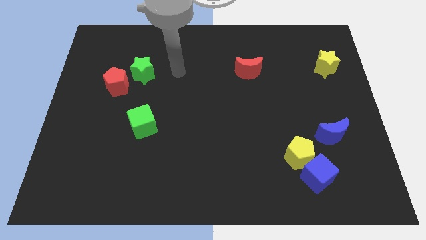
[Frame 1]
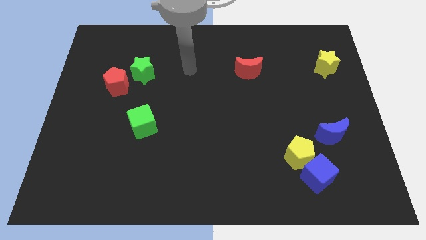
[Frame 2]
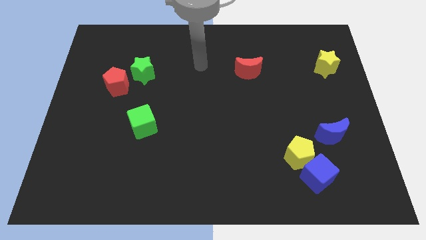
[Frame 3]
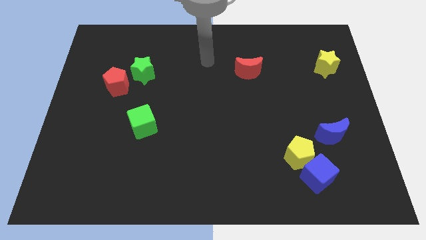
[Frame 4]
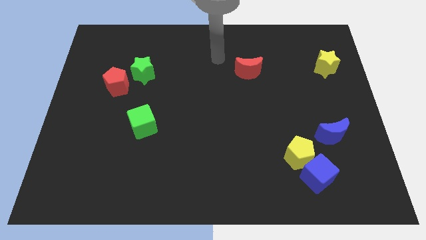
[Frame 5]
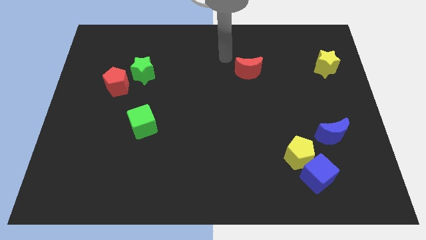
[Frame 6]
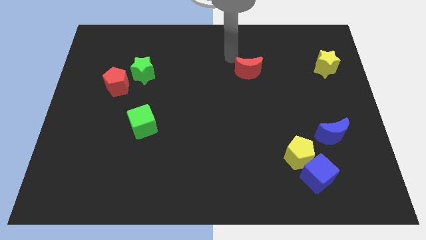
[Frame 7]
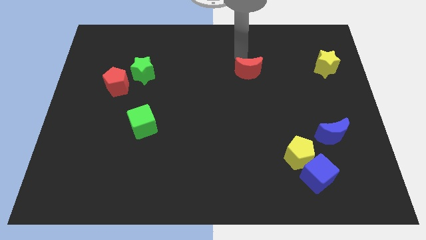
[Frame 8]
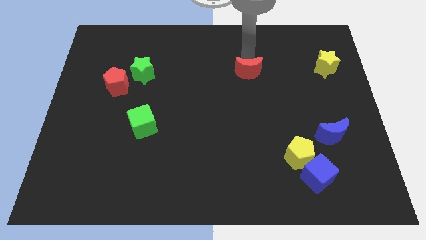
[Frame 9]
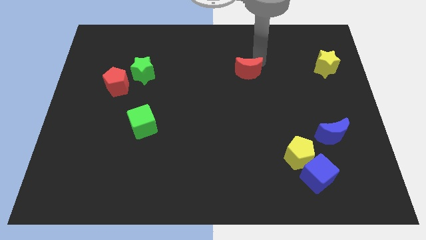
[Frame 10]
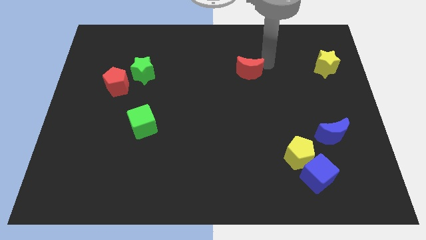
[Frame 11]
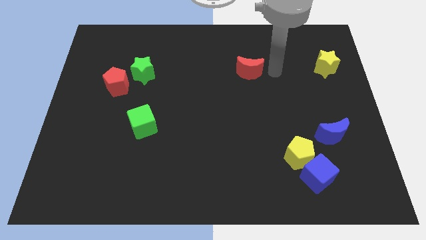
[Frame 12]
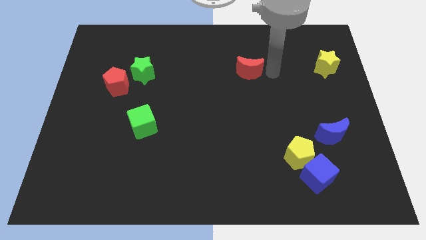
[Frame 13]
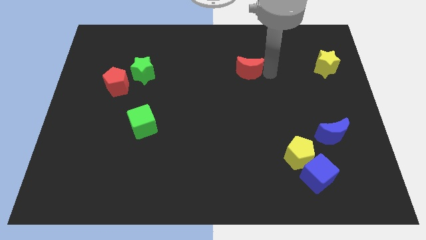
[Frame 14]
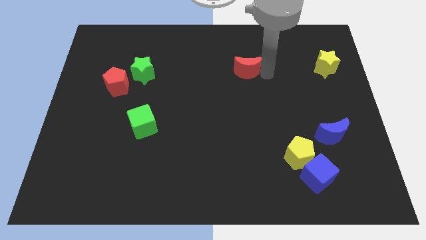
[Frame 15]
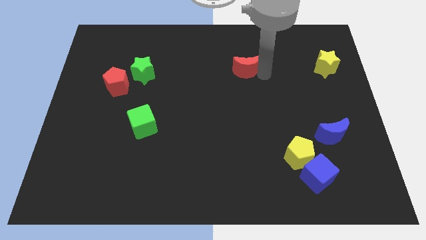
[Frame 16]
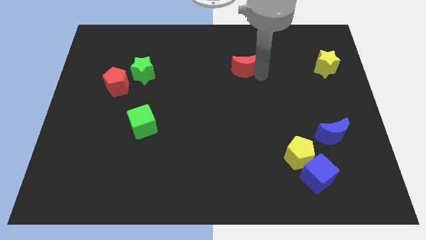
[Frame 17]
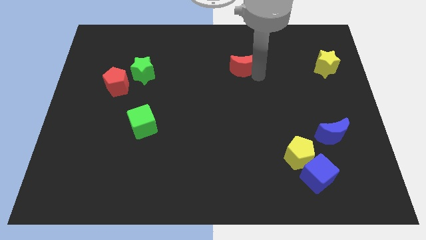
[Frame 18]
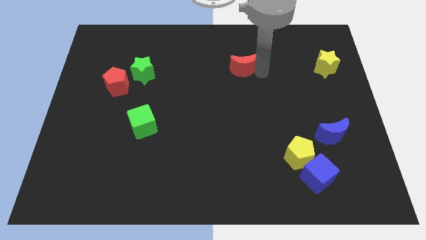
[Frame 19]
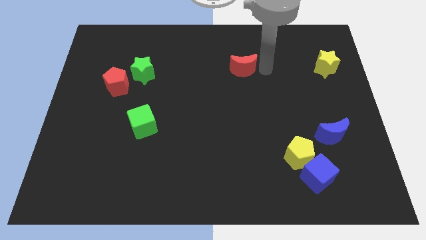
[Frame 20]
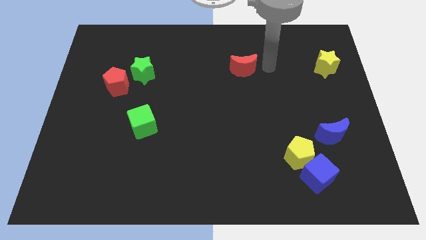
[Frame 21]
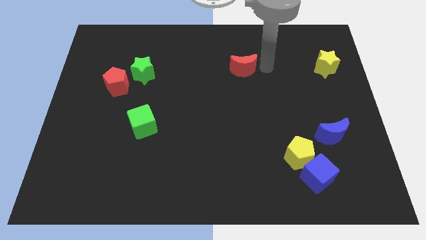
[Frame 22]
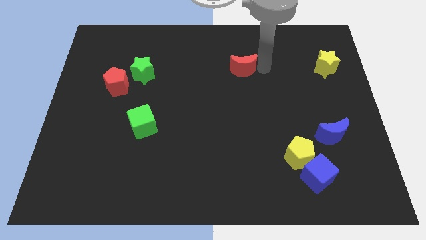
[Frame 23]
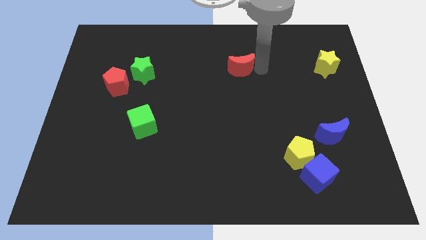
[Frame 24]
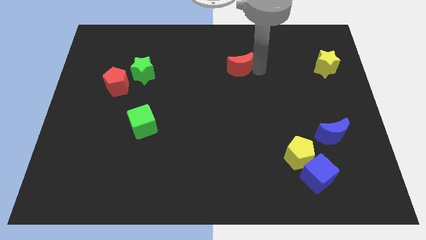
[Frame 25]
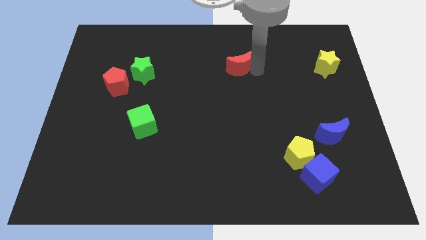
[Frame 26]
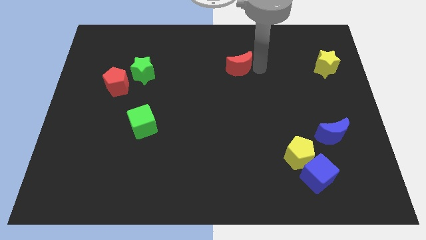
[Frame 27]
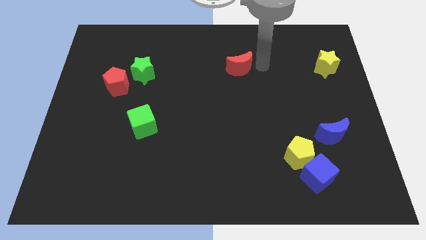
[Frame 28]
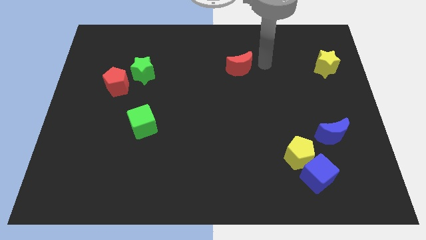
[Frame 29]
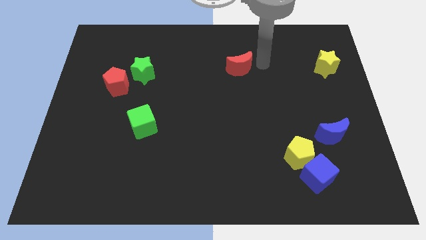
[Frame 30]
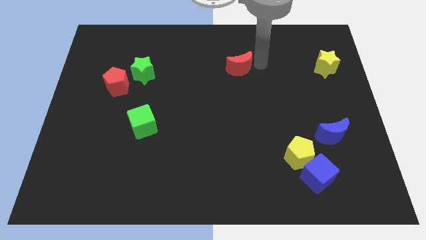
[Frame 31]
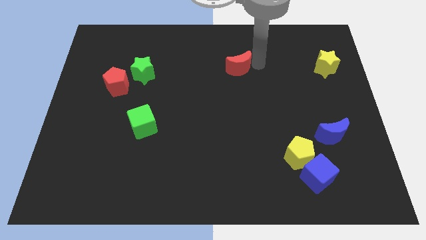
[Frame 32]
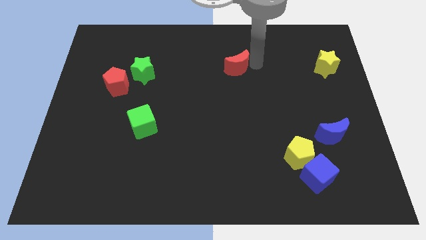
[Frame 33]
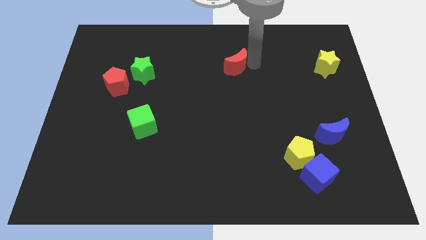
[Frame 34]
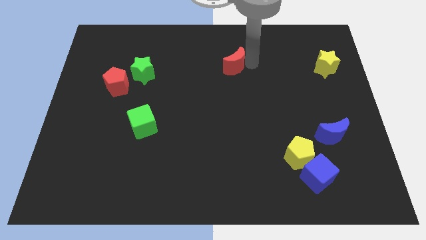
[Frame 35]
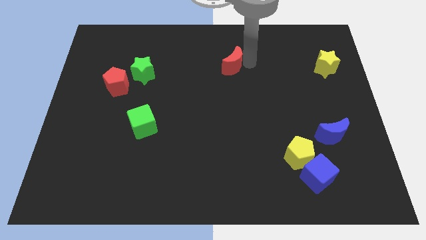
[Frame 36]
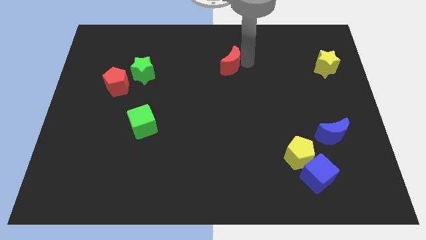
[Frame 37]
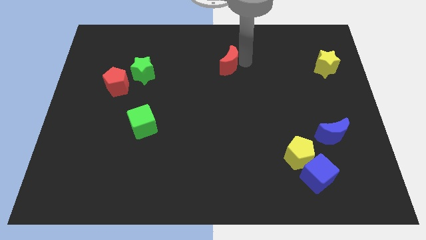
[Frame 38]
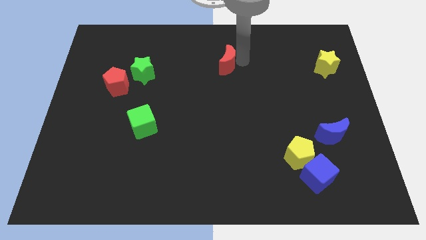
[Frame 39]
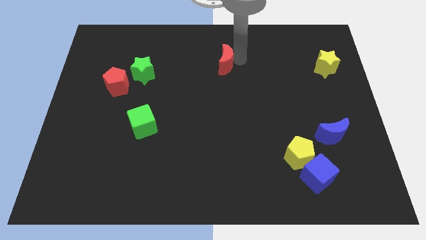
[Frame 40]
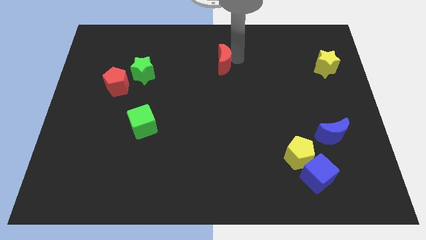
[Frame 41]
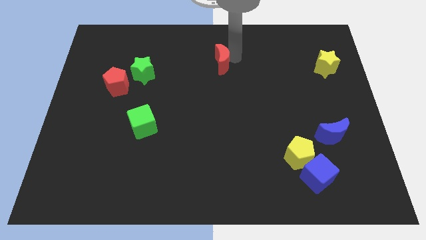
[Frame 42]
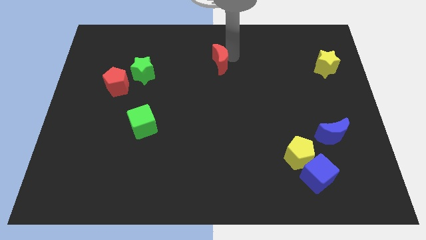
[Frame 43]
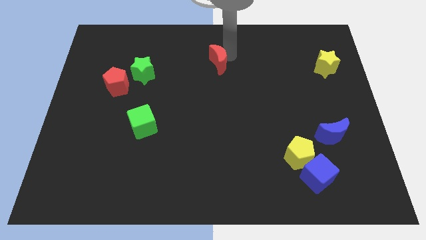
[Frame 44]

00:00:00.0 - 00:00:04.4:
push the red moon left slightly

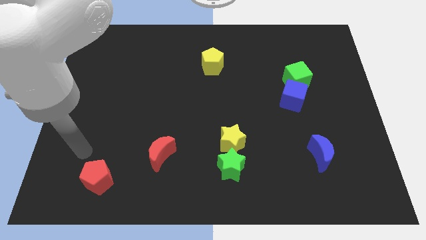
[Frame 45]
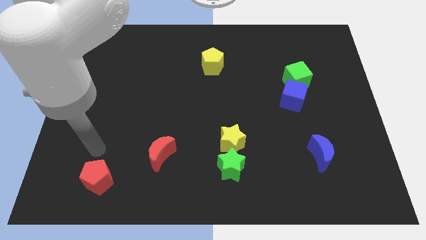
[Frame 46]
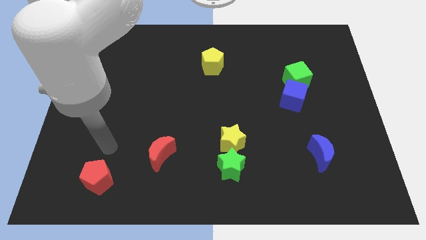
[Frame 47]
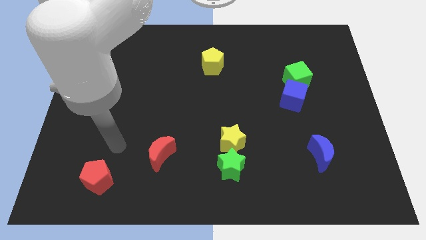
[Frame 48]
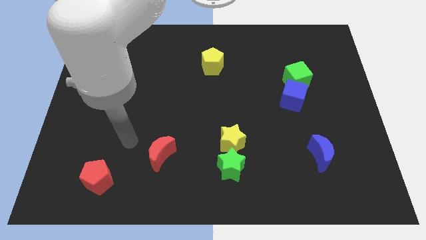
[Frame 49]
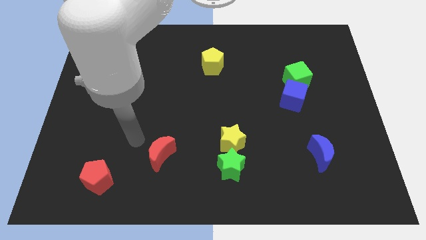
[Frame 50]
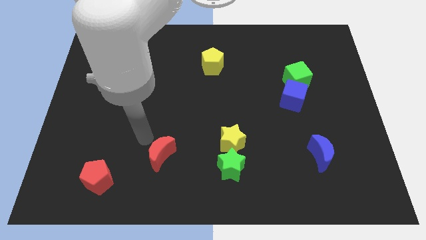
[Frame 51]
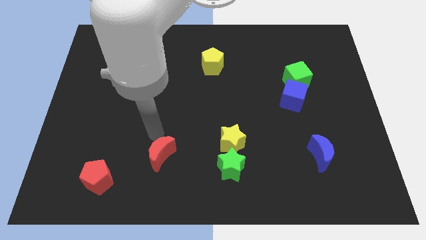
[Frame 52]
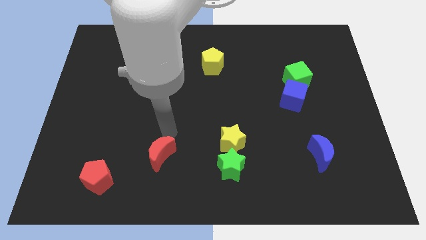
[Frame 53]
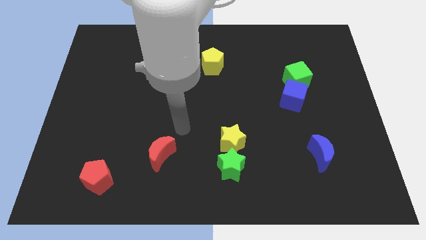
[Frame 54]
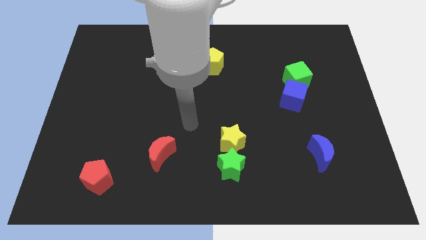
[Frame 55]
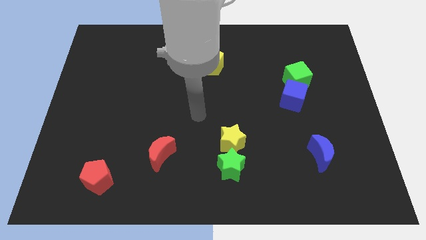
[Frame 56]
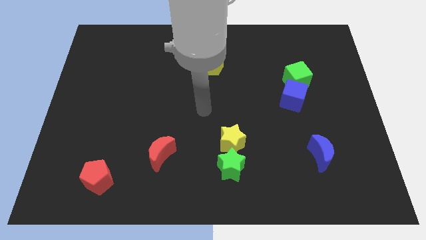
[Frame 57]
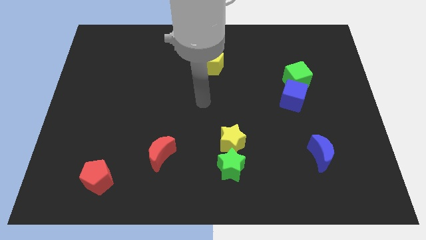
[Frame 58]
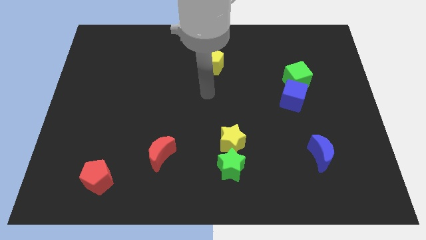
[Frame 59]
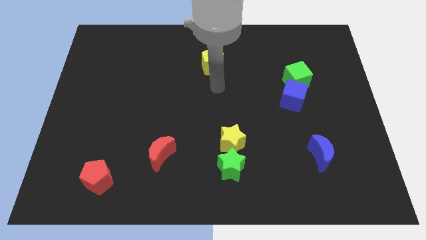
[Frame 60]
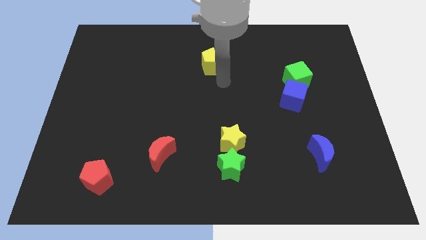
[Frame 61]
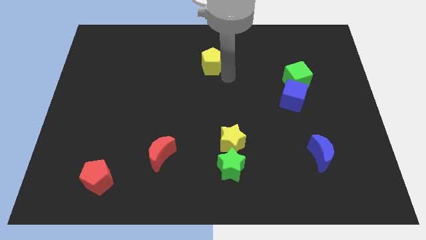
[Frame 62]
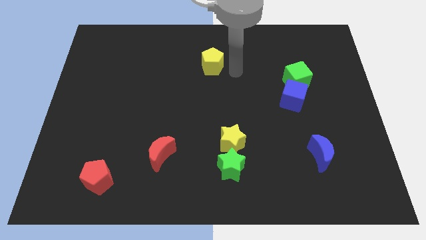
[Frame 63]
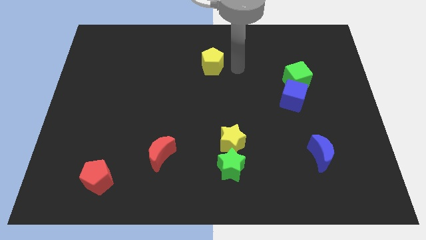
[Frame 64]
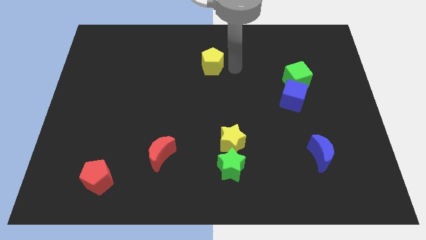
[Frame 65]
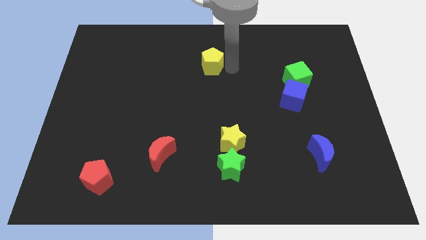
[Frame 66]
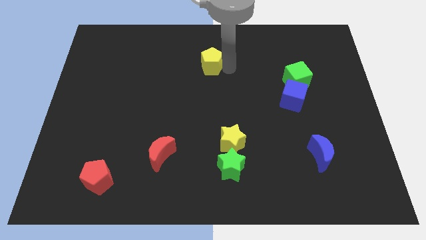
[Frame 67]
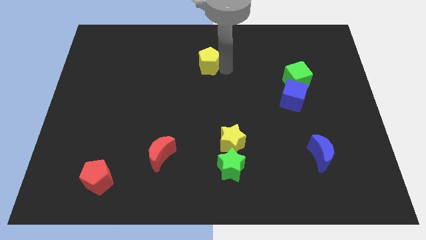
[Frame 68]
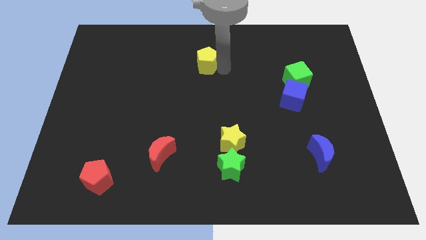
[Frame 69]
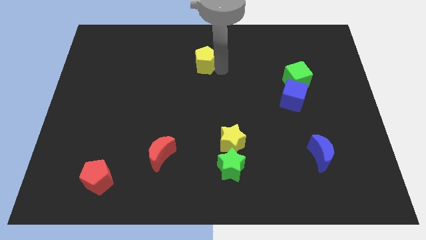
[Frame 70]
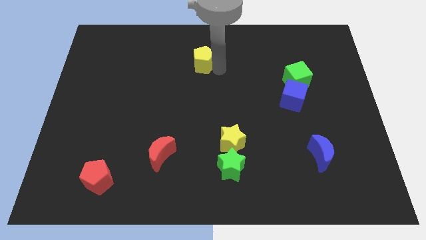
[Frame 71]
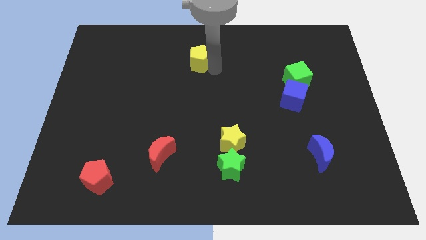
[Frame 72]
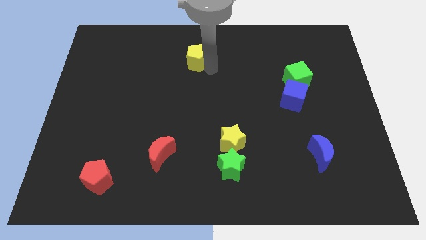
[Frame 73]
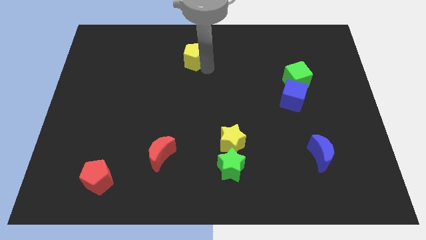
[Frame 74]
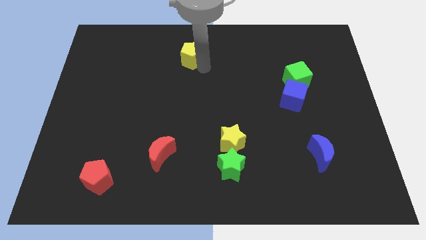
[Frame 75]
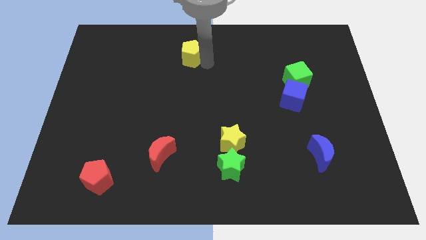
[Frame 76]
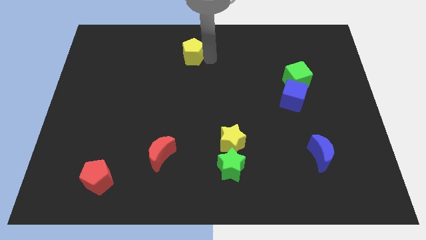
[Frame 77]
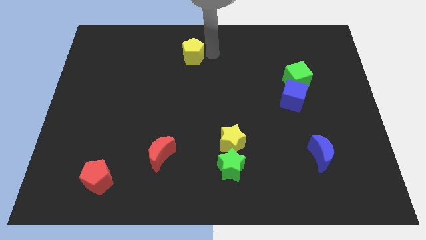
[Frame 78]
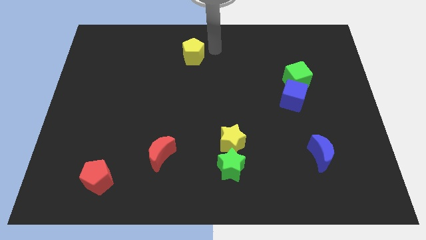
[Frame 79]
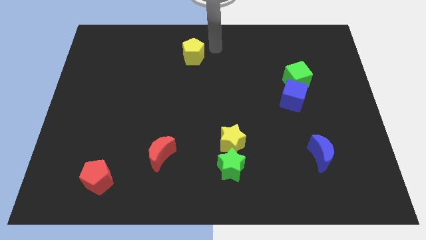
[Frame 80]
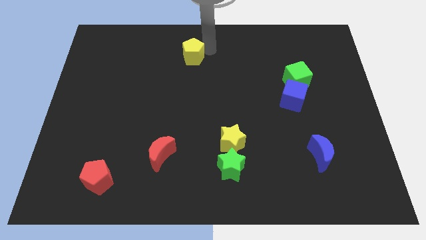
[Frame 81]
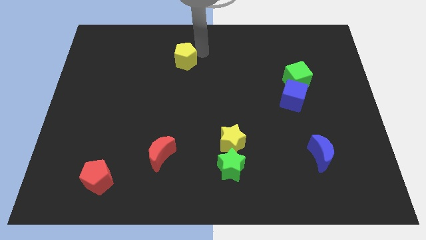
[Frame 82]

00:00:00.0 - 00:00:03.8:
slightly slide the yellow pentagon left
